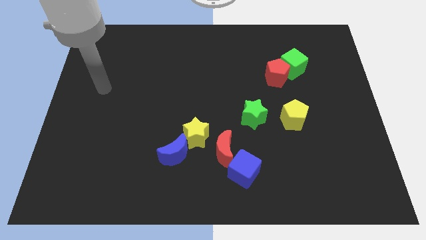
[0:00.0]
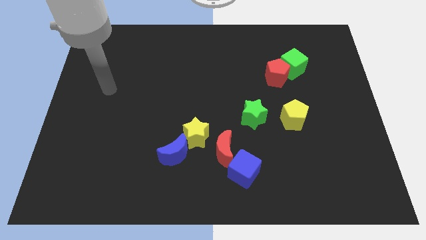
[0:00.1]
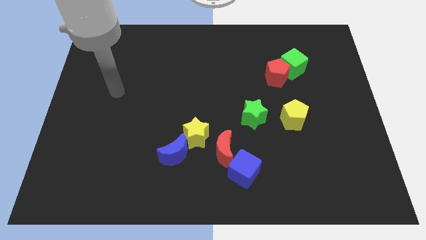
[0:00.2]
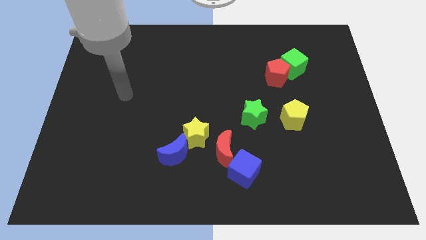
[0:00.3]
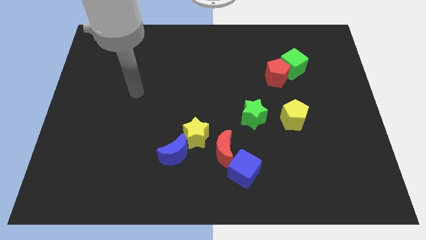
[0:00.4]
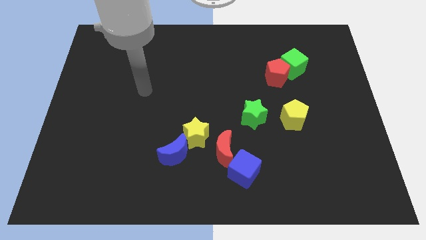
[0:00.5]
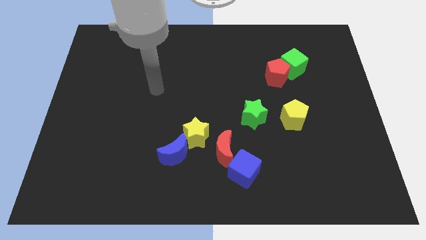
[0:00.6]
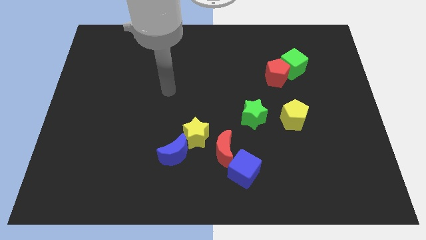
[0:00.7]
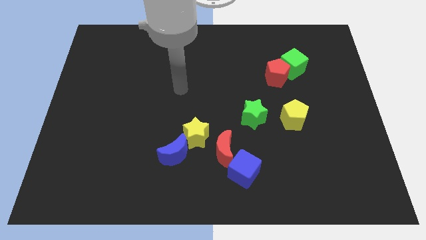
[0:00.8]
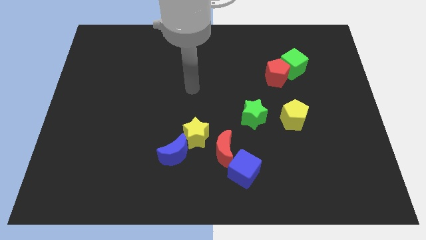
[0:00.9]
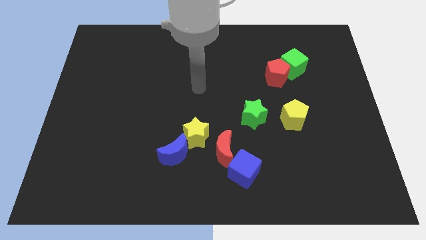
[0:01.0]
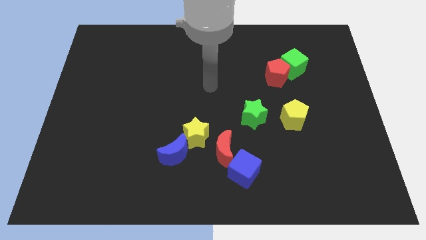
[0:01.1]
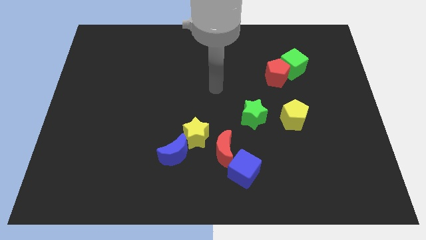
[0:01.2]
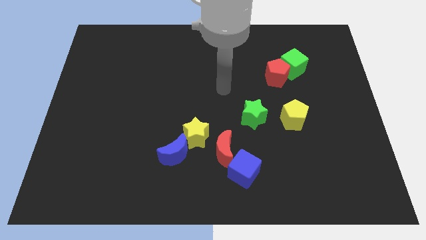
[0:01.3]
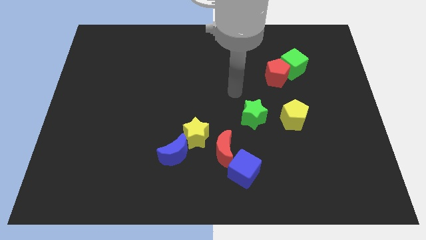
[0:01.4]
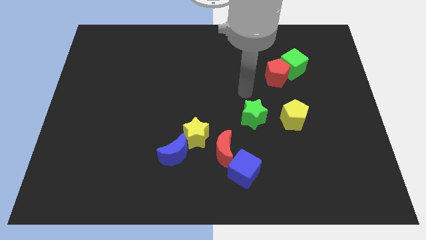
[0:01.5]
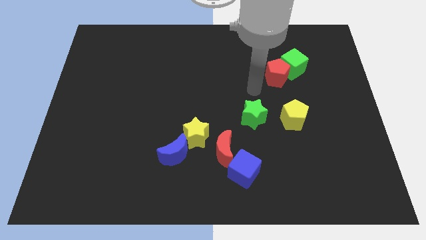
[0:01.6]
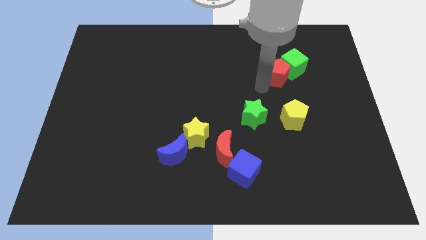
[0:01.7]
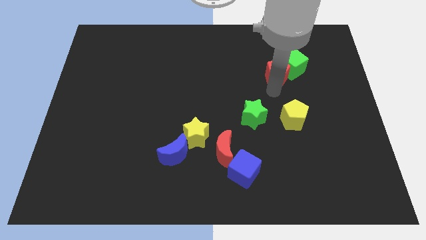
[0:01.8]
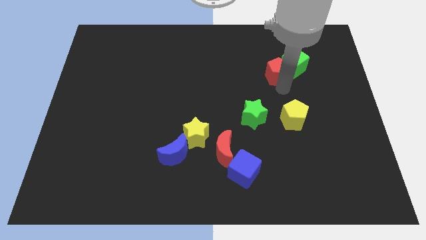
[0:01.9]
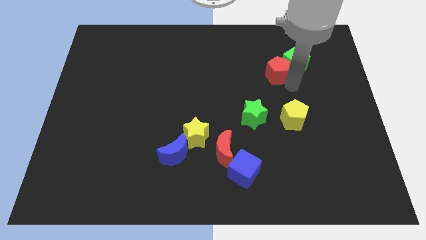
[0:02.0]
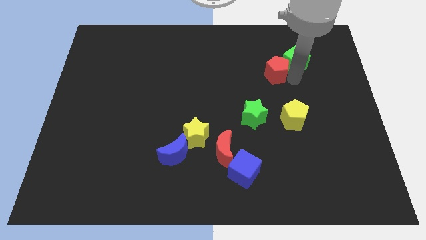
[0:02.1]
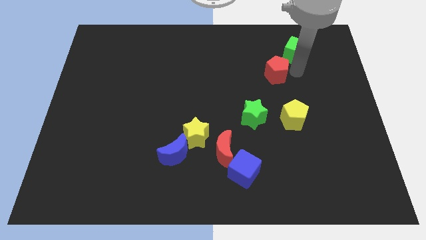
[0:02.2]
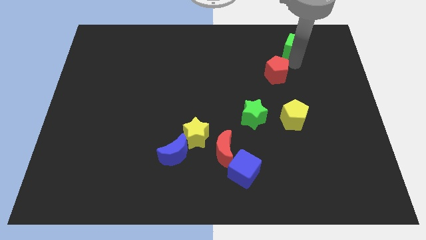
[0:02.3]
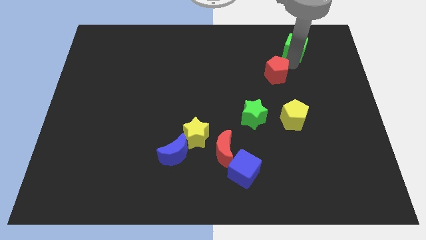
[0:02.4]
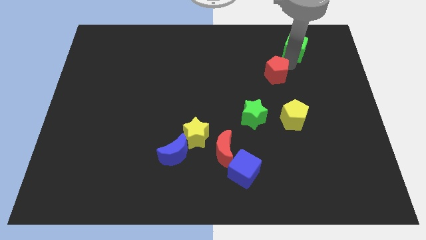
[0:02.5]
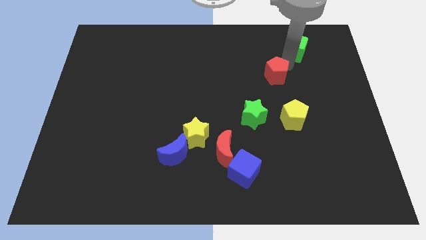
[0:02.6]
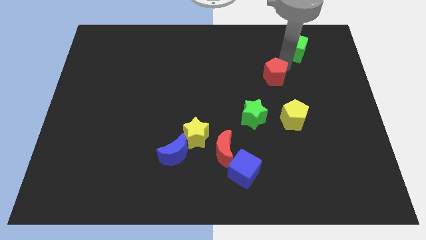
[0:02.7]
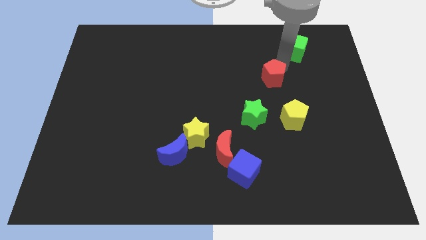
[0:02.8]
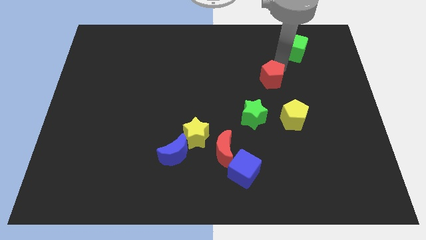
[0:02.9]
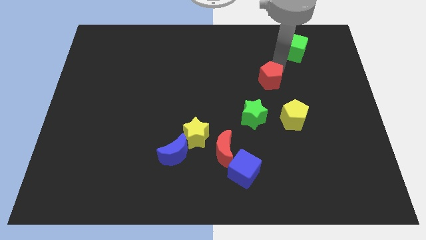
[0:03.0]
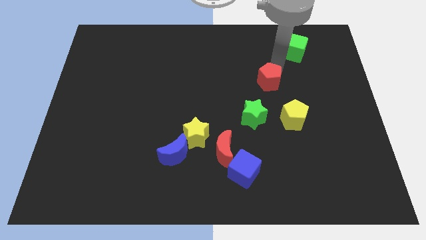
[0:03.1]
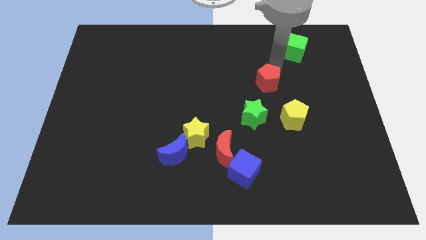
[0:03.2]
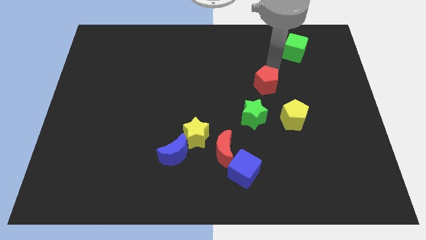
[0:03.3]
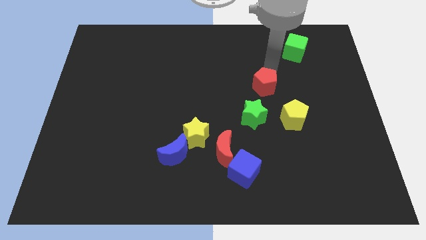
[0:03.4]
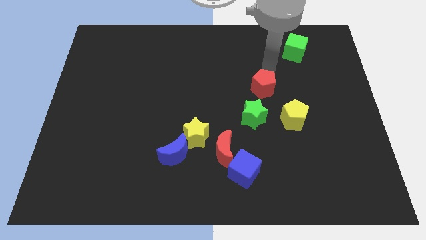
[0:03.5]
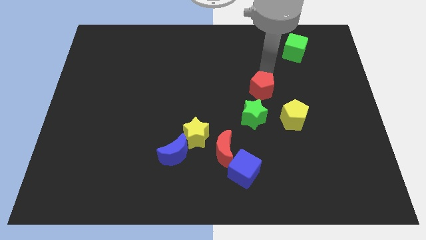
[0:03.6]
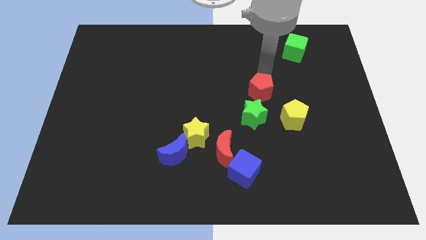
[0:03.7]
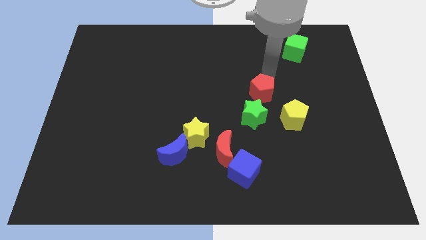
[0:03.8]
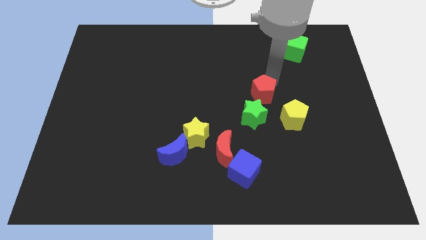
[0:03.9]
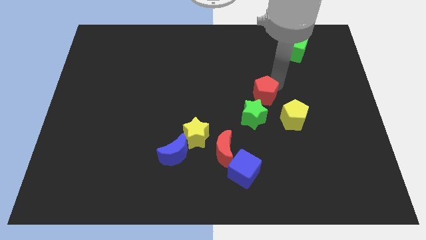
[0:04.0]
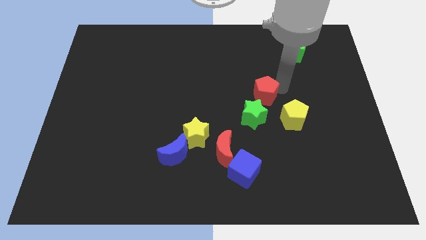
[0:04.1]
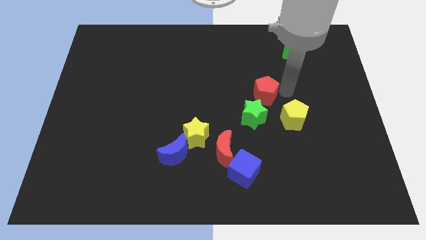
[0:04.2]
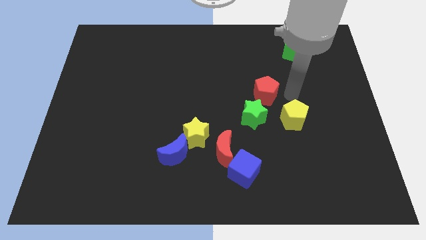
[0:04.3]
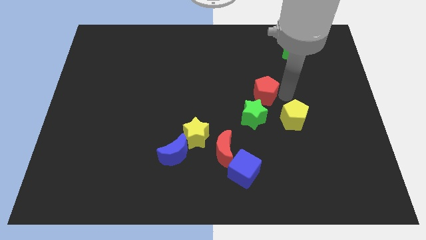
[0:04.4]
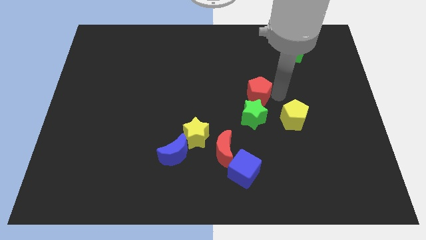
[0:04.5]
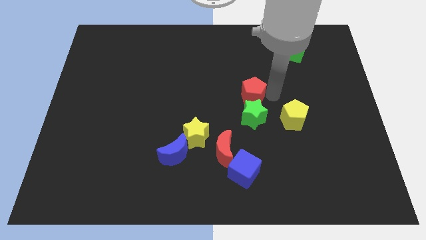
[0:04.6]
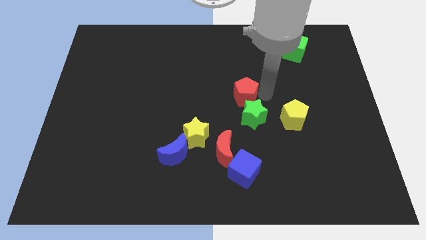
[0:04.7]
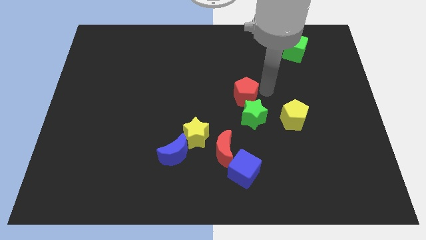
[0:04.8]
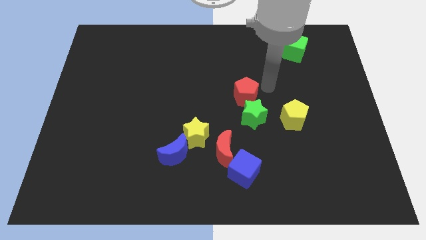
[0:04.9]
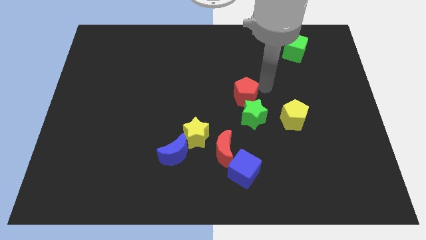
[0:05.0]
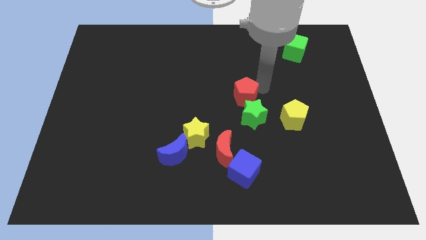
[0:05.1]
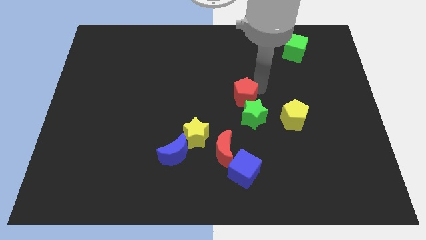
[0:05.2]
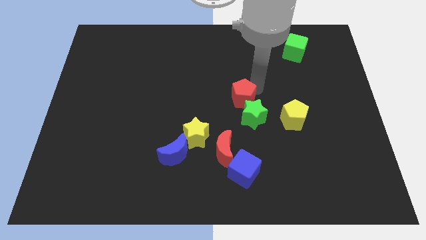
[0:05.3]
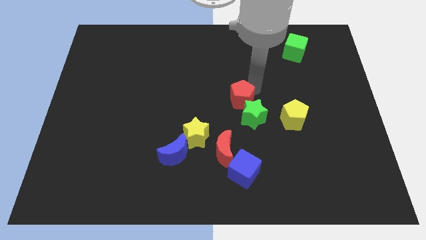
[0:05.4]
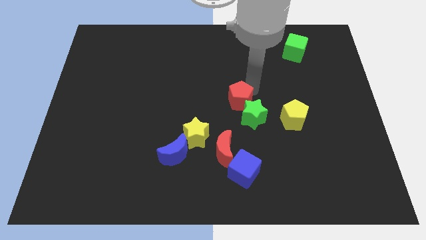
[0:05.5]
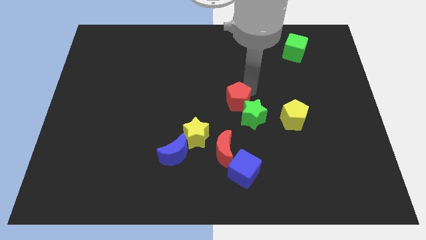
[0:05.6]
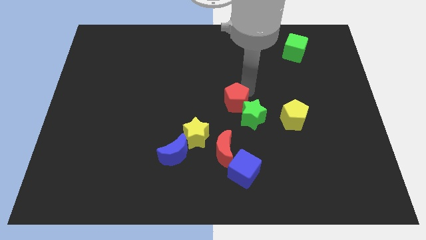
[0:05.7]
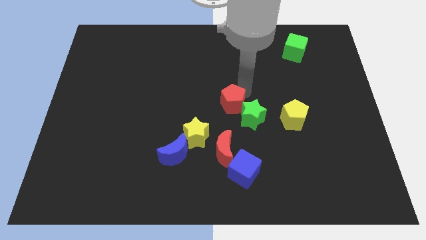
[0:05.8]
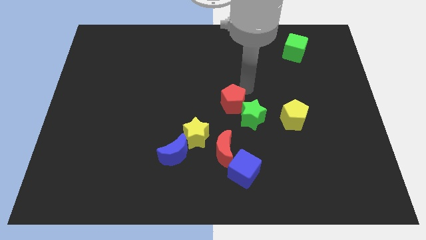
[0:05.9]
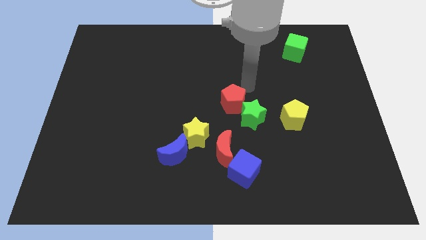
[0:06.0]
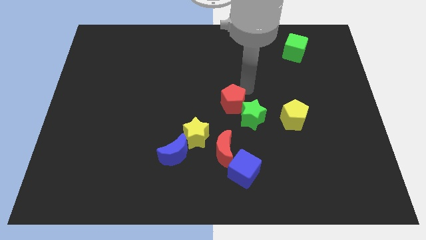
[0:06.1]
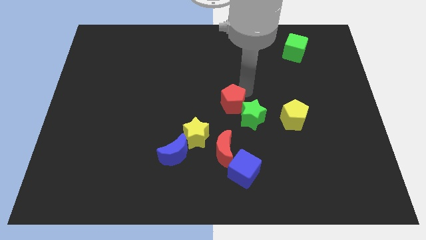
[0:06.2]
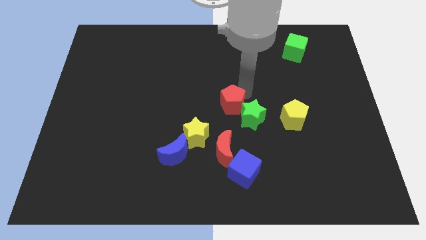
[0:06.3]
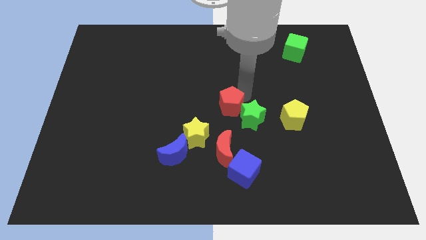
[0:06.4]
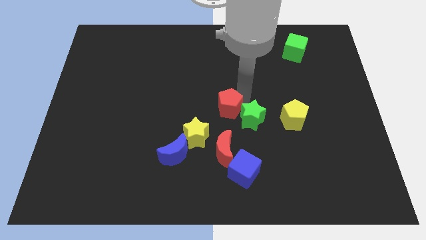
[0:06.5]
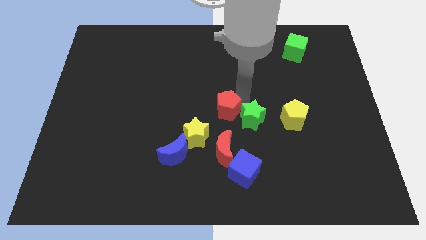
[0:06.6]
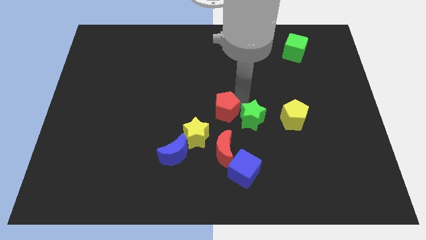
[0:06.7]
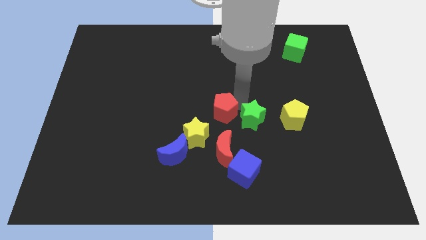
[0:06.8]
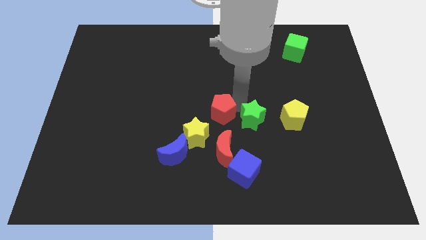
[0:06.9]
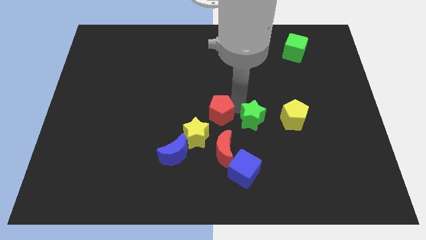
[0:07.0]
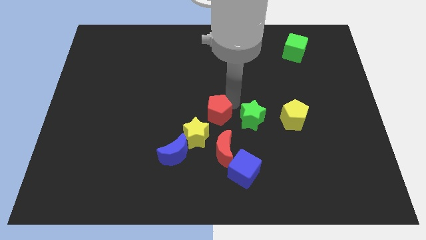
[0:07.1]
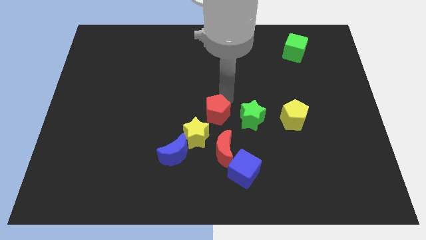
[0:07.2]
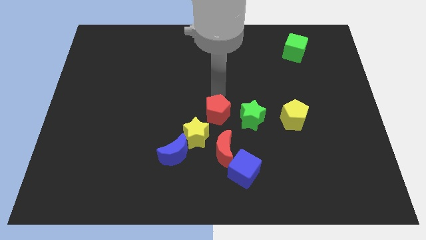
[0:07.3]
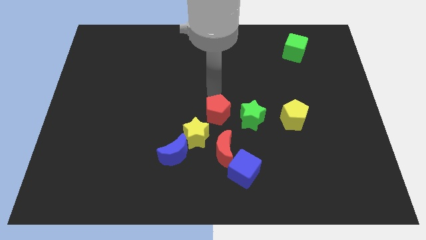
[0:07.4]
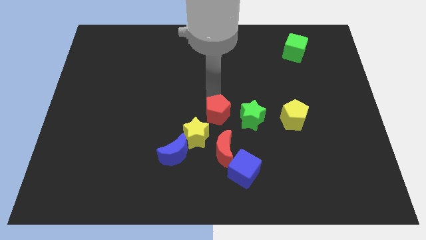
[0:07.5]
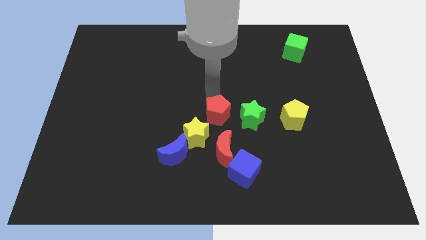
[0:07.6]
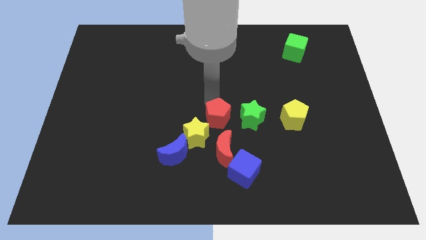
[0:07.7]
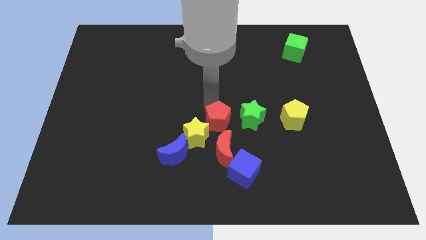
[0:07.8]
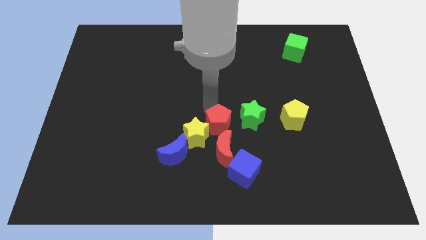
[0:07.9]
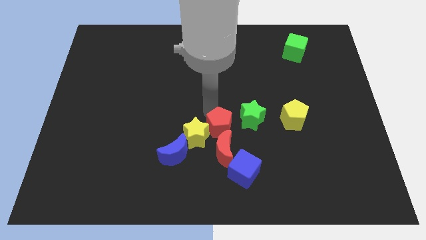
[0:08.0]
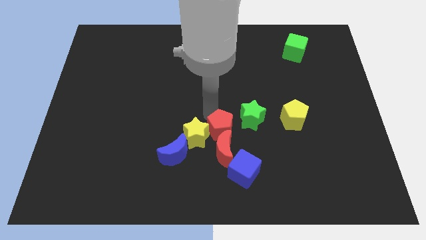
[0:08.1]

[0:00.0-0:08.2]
put the red pentagon to the red moon

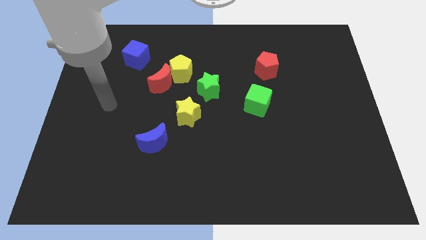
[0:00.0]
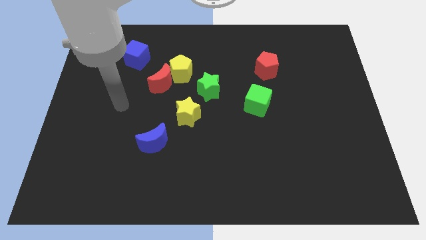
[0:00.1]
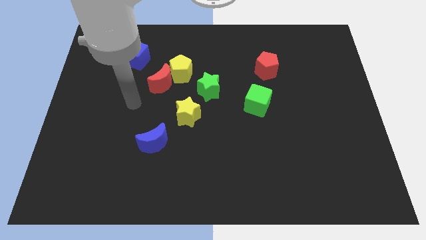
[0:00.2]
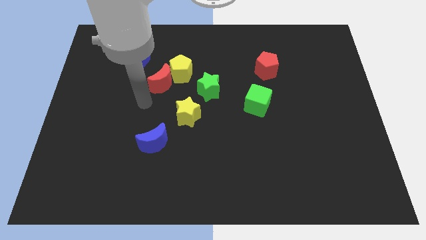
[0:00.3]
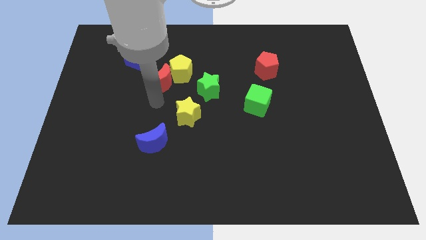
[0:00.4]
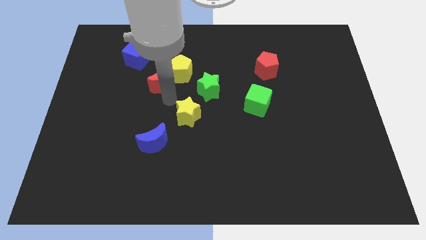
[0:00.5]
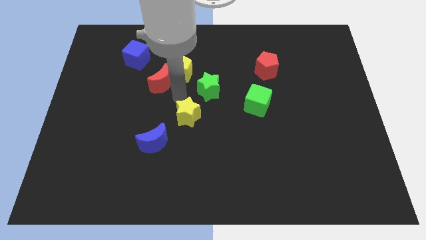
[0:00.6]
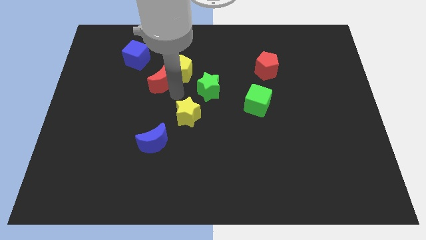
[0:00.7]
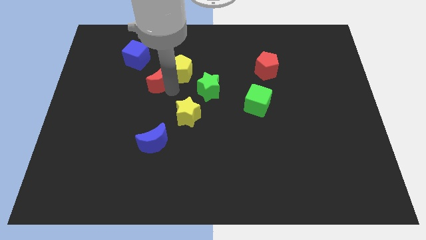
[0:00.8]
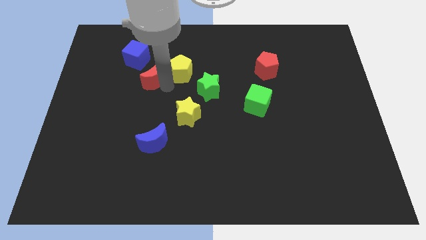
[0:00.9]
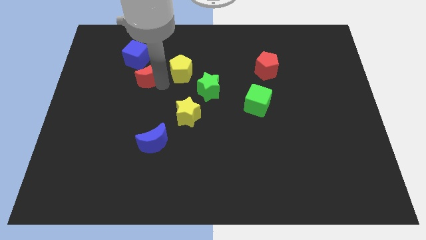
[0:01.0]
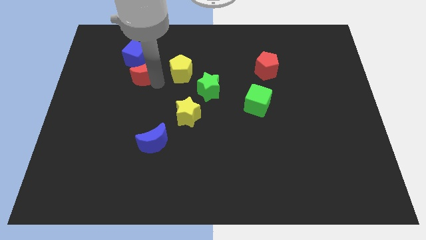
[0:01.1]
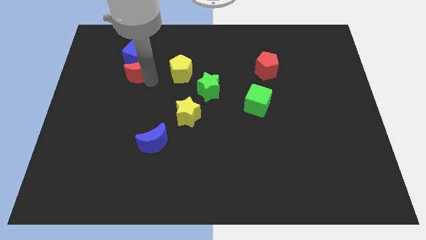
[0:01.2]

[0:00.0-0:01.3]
put the red moon close to the blue cube
